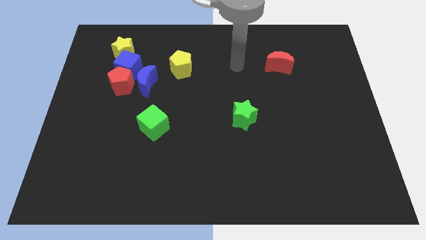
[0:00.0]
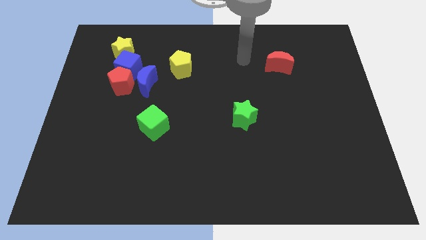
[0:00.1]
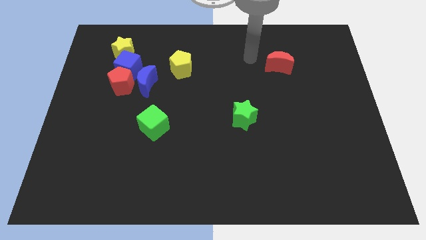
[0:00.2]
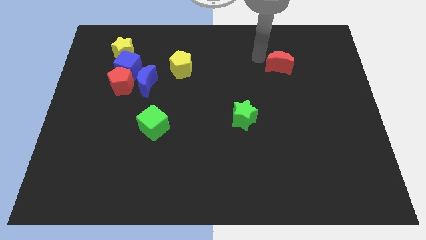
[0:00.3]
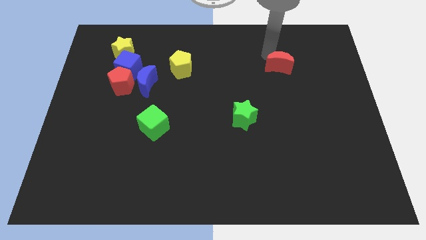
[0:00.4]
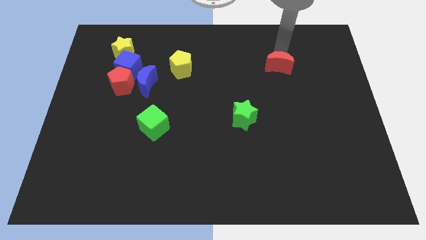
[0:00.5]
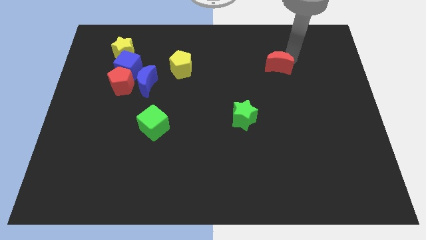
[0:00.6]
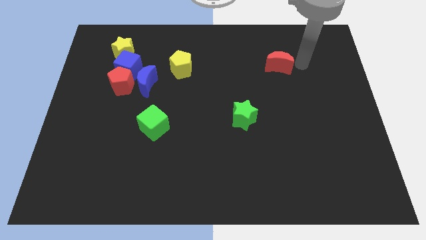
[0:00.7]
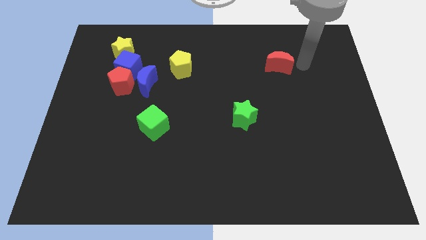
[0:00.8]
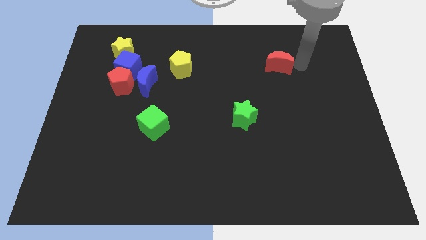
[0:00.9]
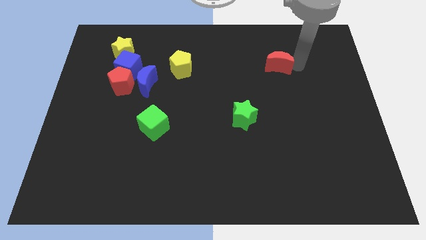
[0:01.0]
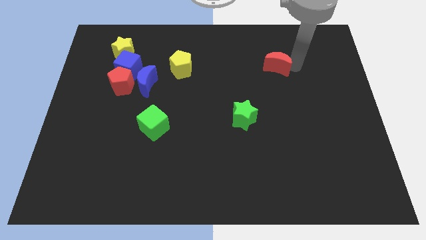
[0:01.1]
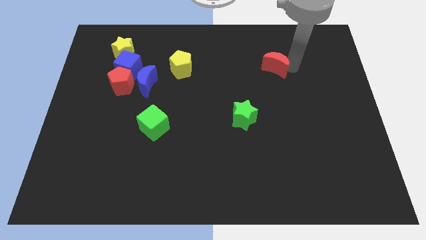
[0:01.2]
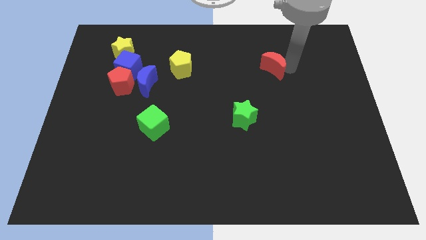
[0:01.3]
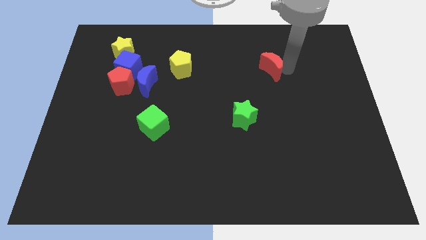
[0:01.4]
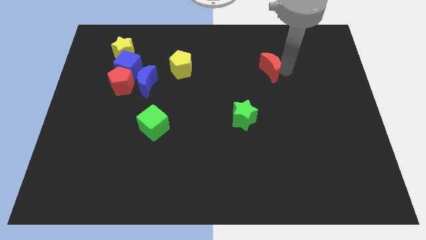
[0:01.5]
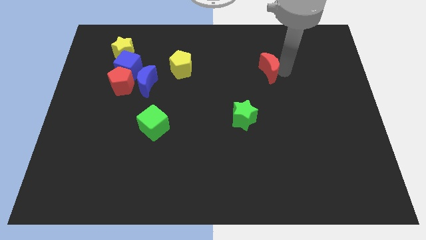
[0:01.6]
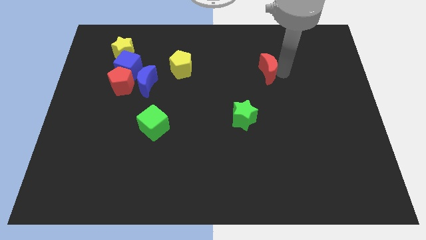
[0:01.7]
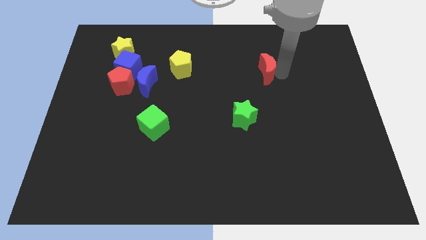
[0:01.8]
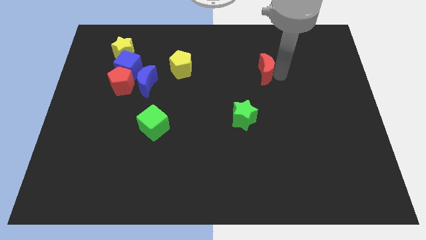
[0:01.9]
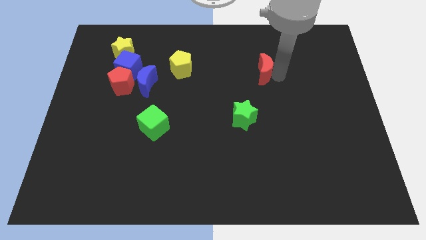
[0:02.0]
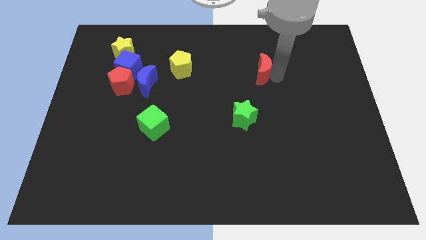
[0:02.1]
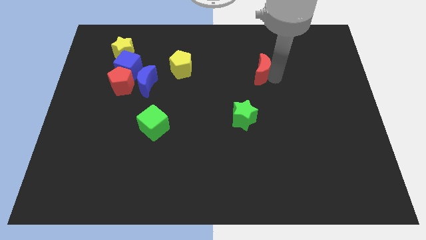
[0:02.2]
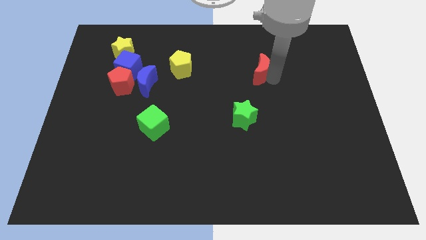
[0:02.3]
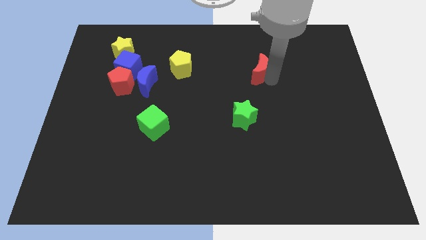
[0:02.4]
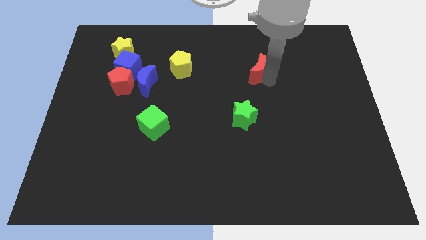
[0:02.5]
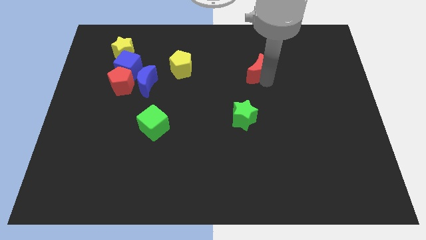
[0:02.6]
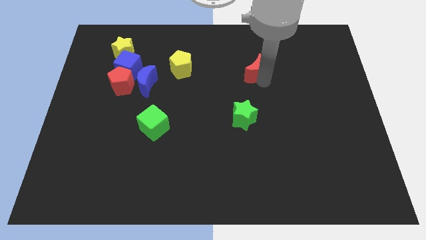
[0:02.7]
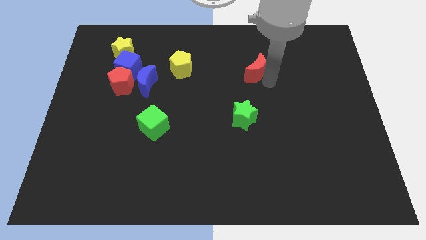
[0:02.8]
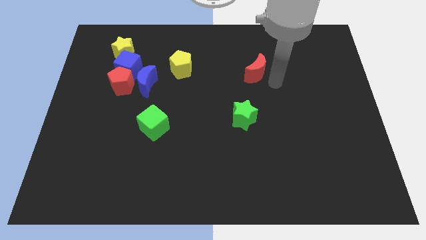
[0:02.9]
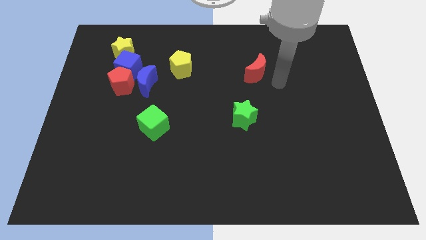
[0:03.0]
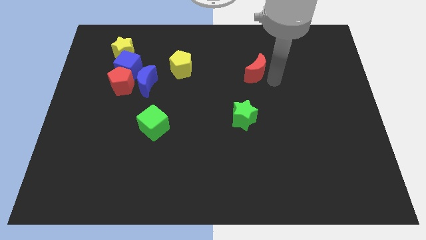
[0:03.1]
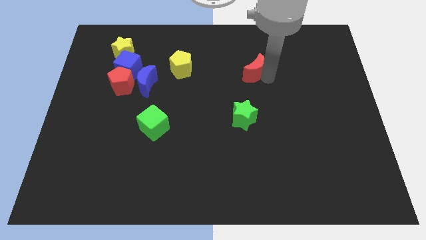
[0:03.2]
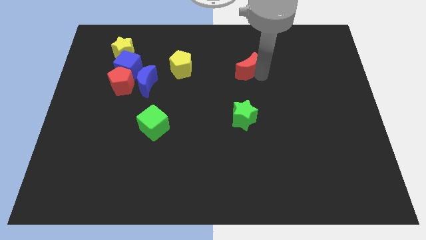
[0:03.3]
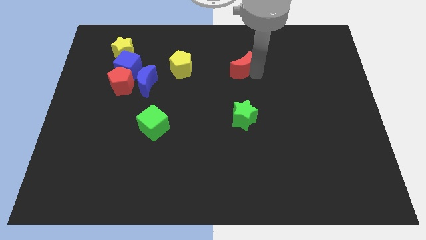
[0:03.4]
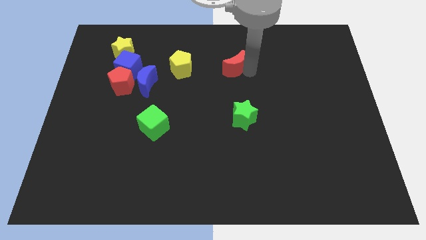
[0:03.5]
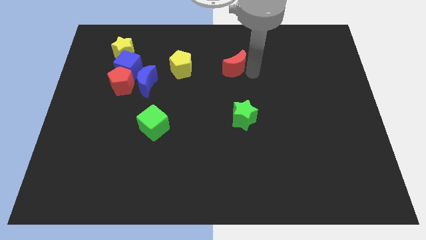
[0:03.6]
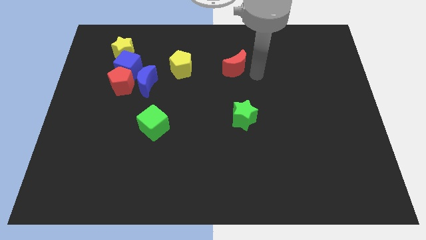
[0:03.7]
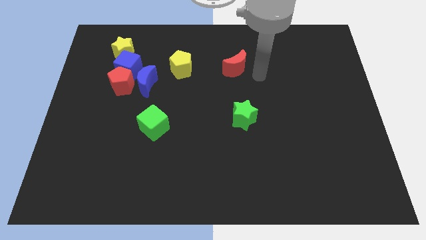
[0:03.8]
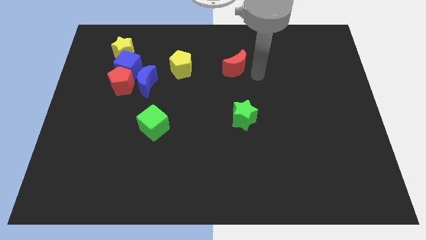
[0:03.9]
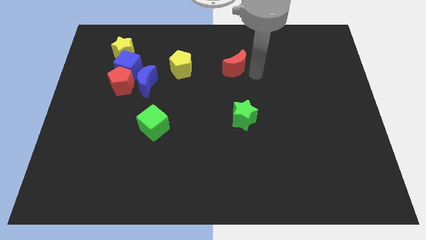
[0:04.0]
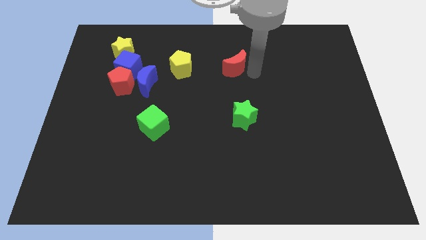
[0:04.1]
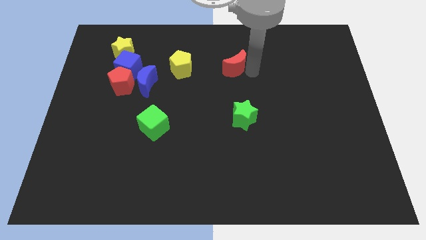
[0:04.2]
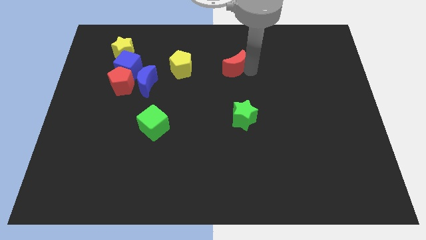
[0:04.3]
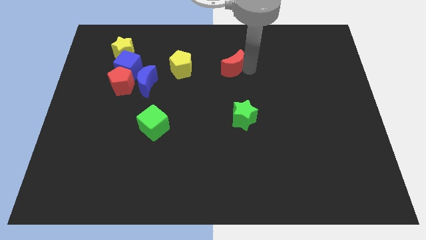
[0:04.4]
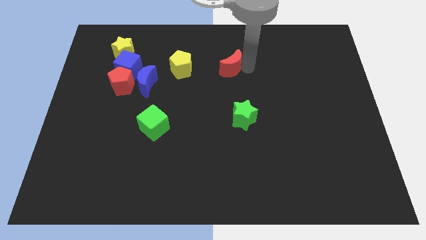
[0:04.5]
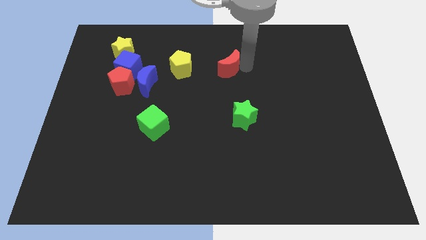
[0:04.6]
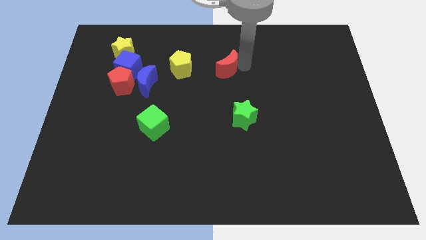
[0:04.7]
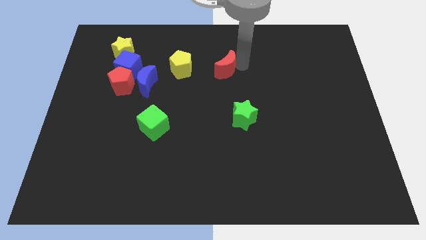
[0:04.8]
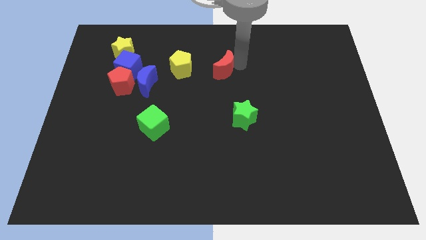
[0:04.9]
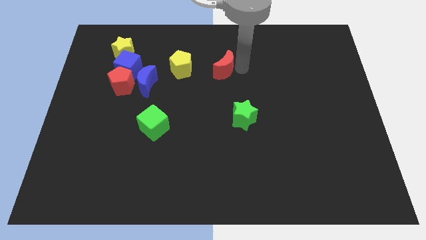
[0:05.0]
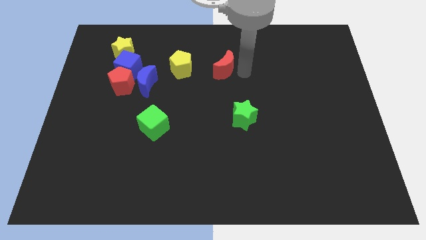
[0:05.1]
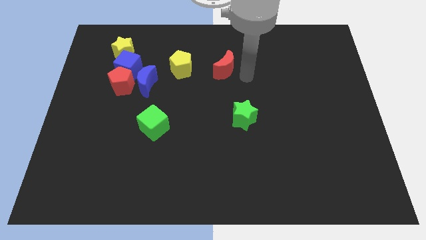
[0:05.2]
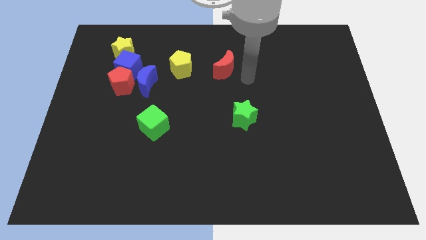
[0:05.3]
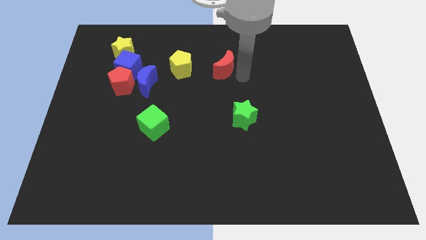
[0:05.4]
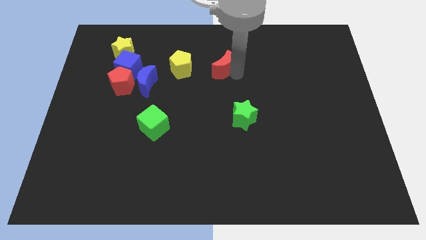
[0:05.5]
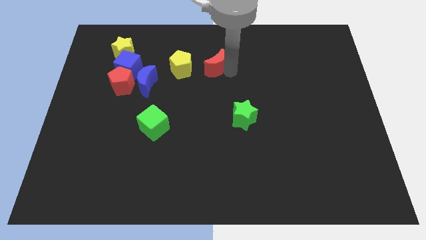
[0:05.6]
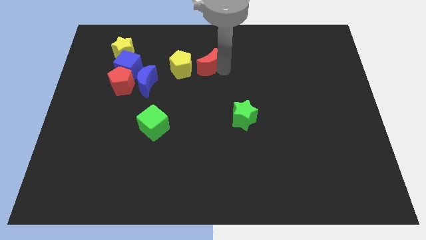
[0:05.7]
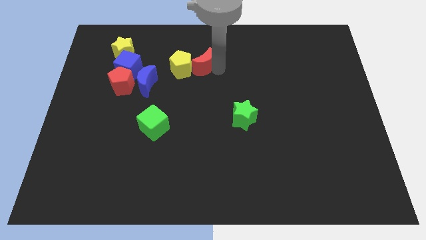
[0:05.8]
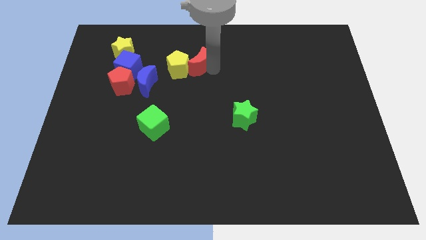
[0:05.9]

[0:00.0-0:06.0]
move the red moon to the left

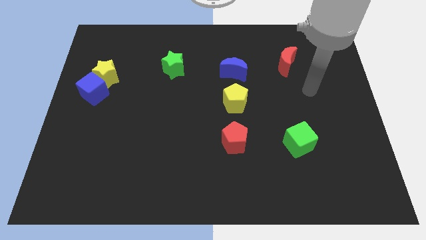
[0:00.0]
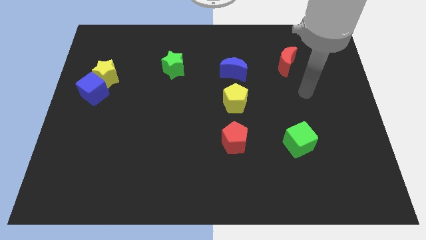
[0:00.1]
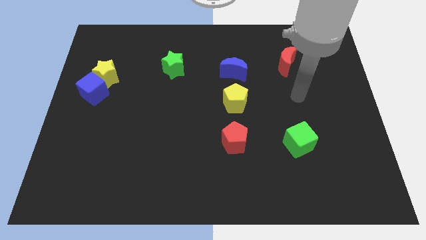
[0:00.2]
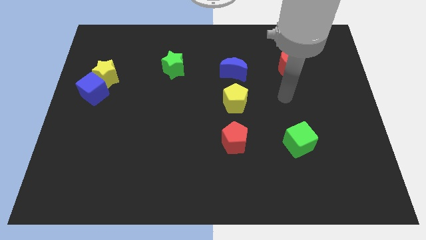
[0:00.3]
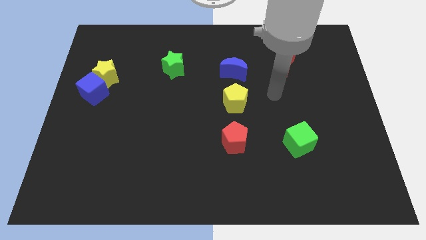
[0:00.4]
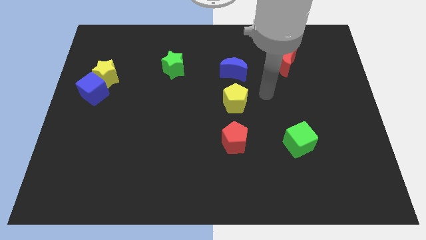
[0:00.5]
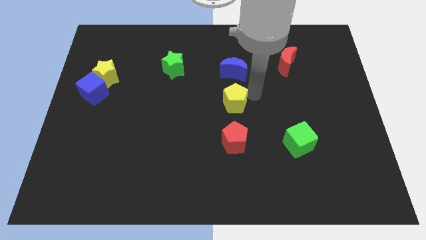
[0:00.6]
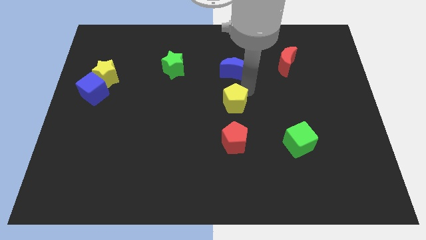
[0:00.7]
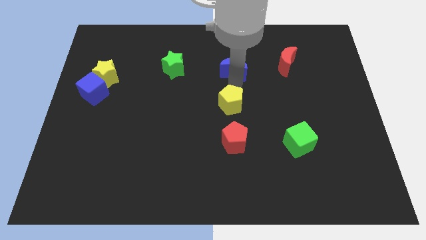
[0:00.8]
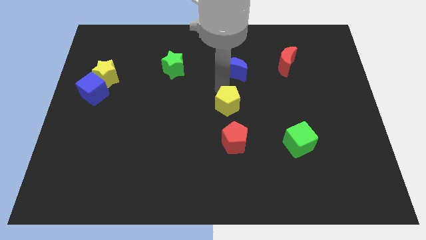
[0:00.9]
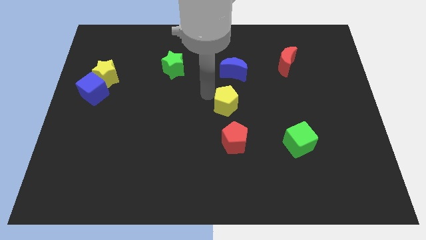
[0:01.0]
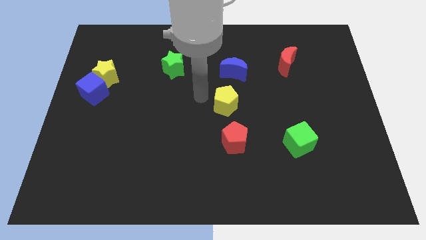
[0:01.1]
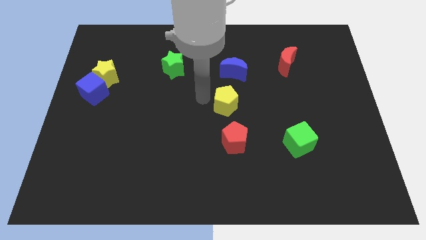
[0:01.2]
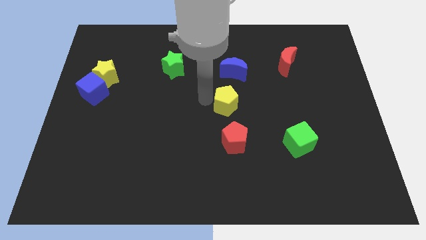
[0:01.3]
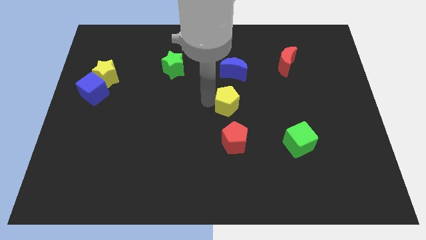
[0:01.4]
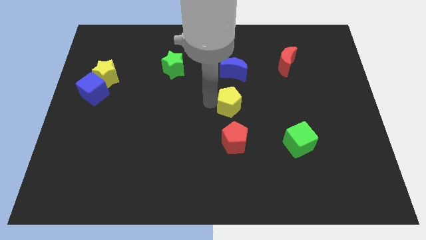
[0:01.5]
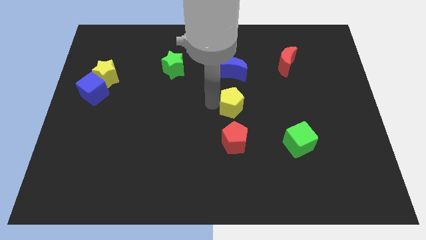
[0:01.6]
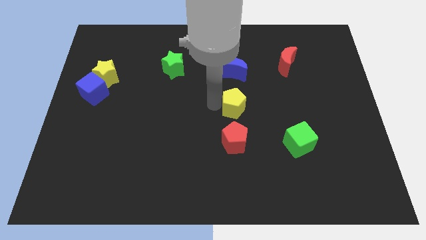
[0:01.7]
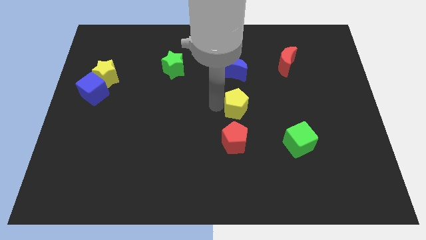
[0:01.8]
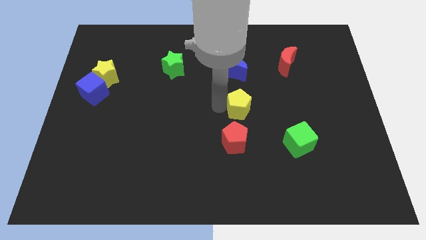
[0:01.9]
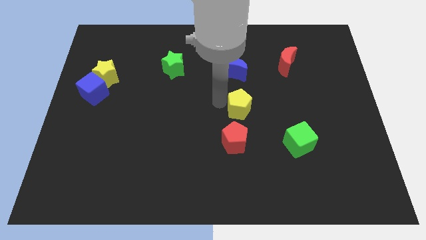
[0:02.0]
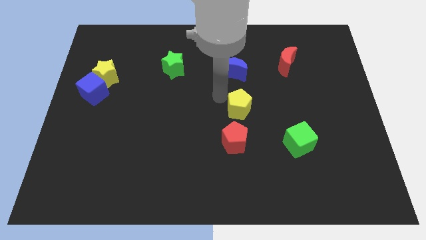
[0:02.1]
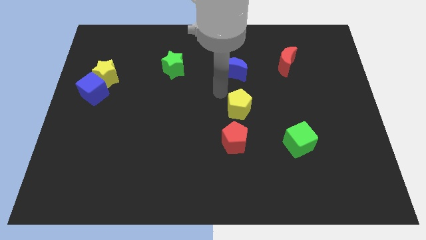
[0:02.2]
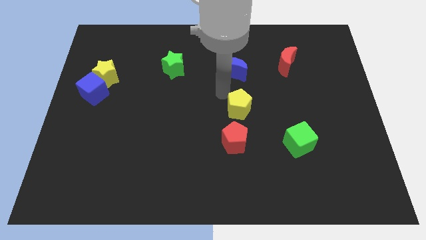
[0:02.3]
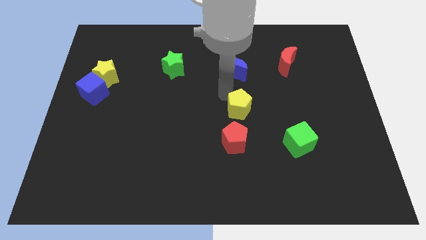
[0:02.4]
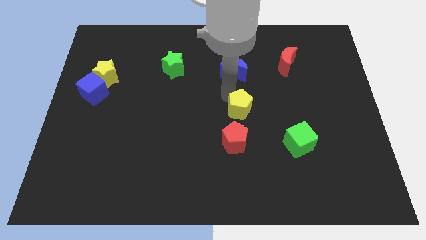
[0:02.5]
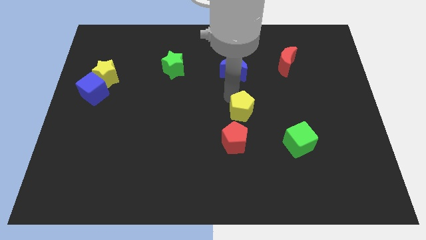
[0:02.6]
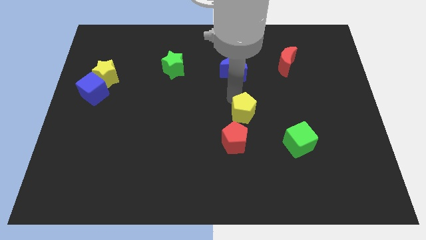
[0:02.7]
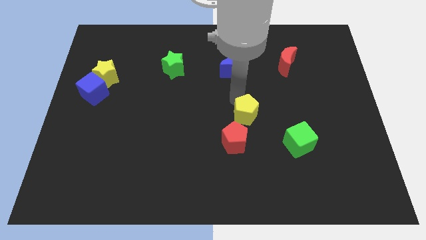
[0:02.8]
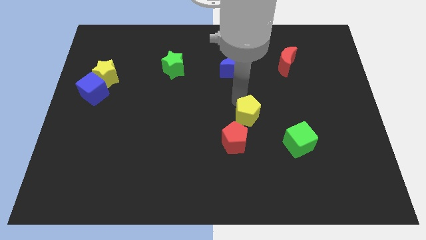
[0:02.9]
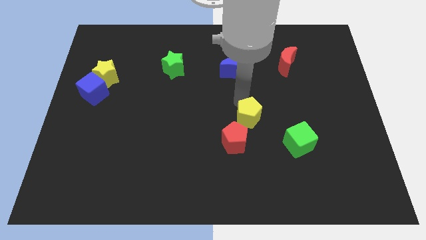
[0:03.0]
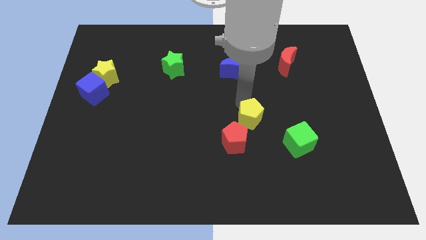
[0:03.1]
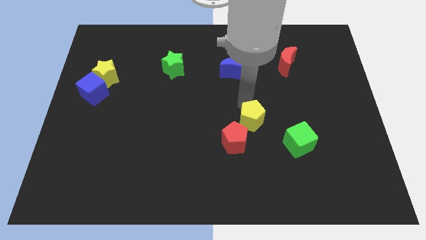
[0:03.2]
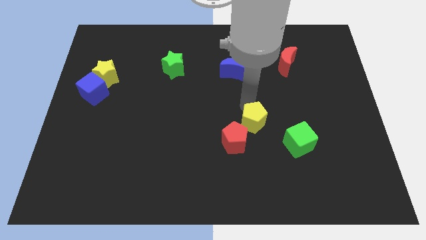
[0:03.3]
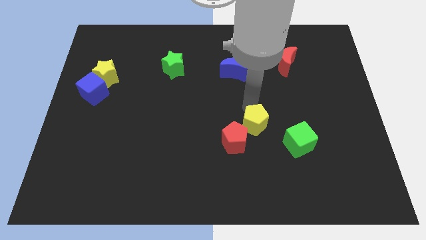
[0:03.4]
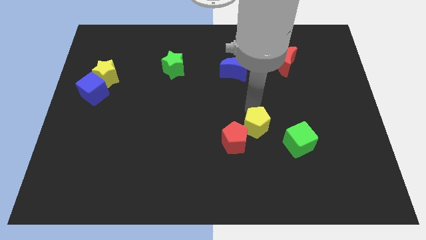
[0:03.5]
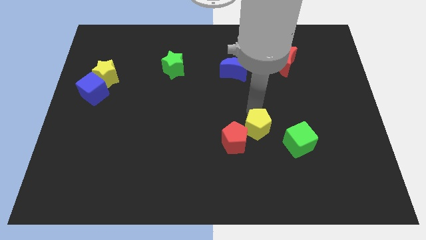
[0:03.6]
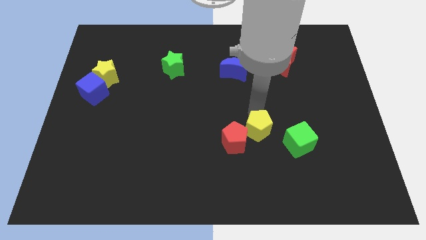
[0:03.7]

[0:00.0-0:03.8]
move the yellow pentagon down a little bit
